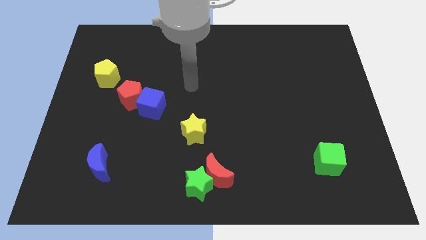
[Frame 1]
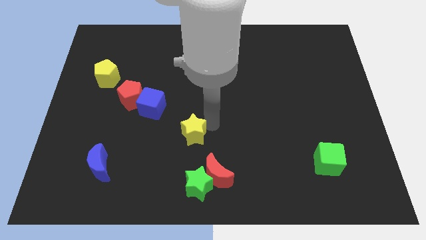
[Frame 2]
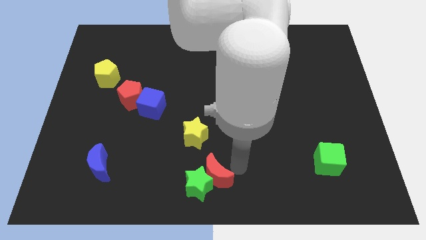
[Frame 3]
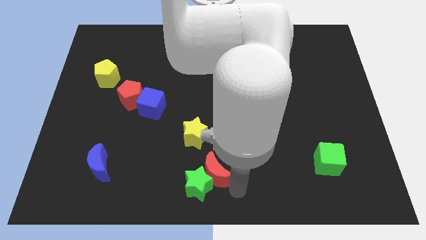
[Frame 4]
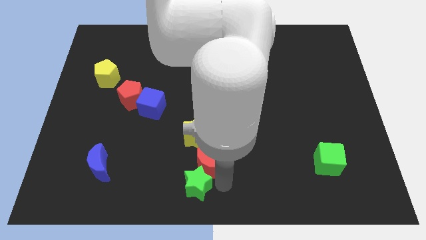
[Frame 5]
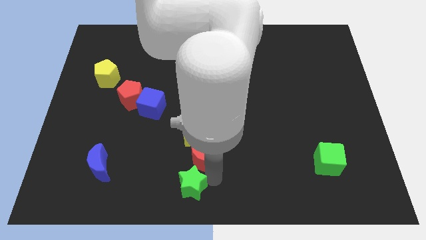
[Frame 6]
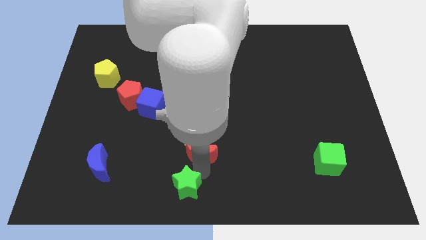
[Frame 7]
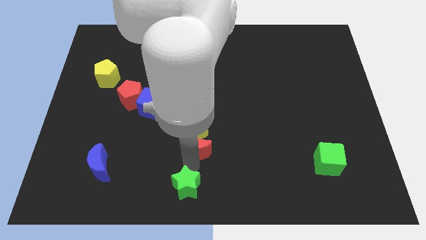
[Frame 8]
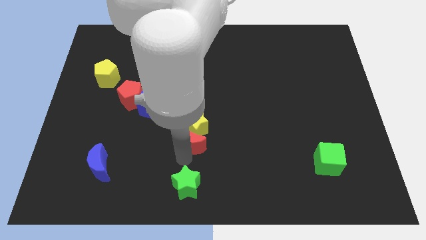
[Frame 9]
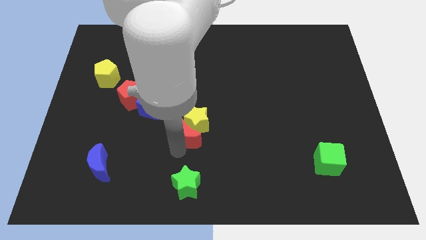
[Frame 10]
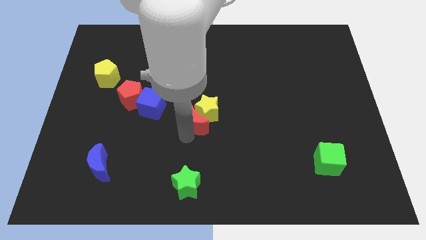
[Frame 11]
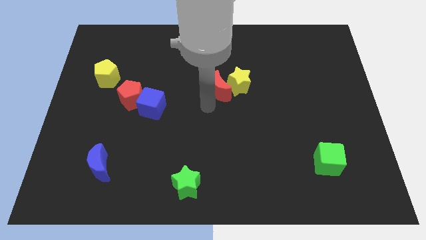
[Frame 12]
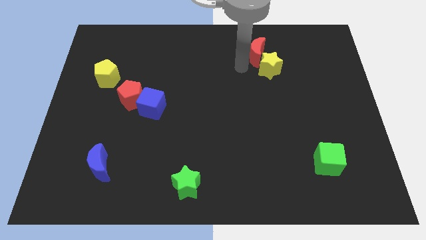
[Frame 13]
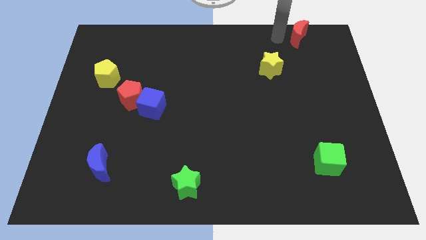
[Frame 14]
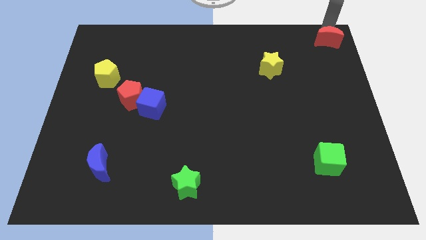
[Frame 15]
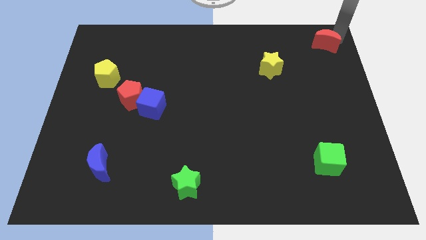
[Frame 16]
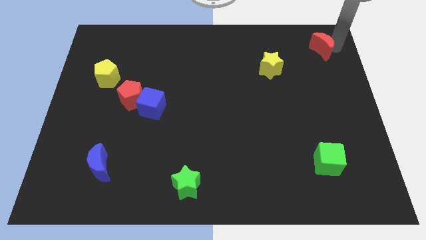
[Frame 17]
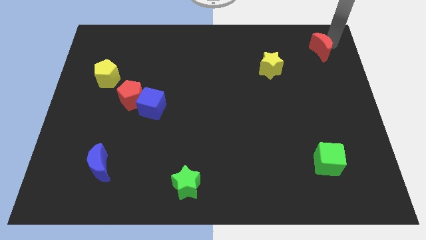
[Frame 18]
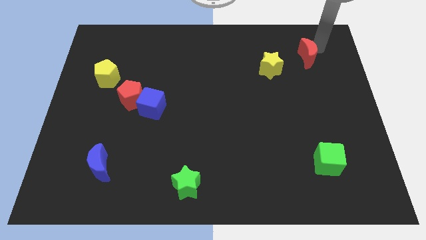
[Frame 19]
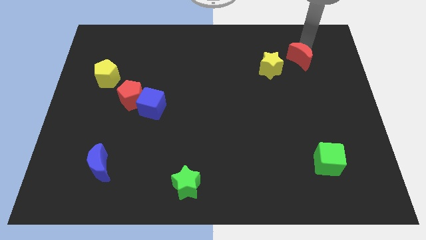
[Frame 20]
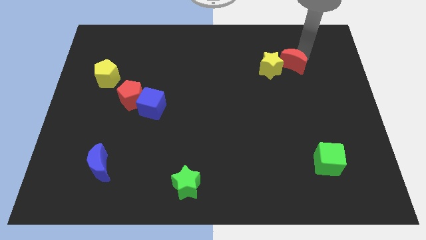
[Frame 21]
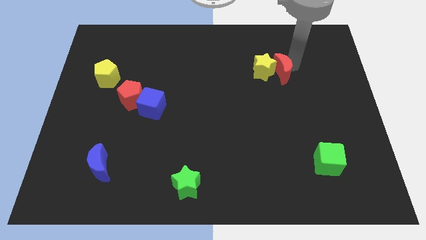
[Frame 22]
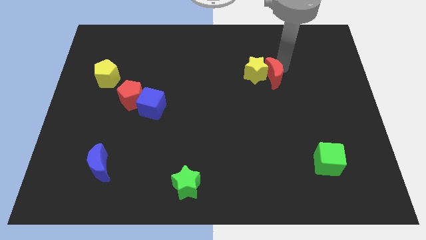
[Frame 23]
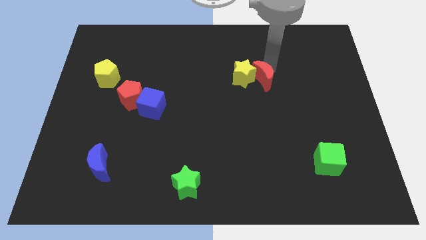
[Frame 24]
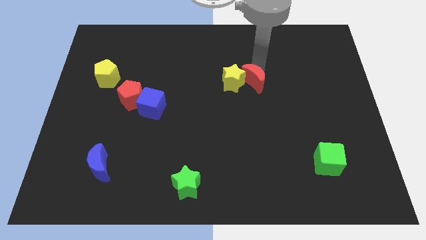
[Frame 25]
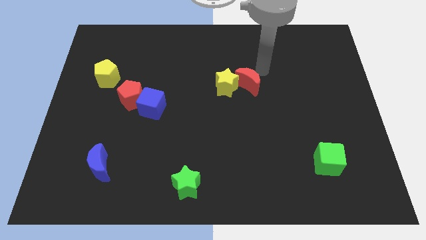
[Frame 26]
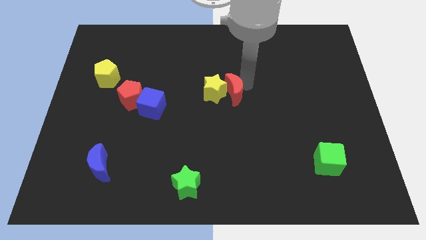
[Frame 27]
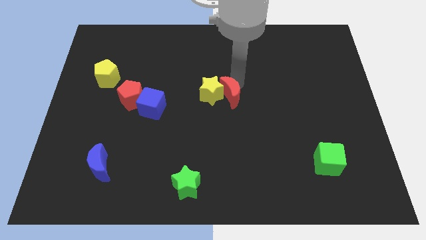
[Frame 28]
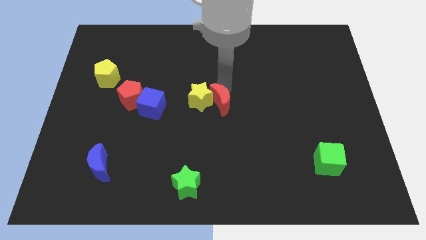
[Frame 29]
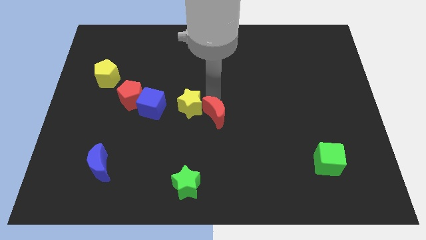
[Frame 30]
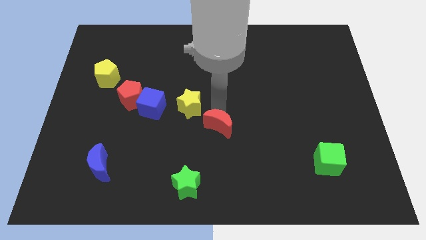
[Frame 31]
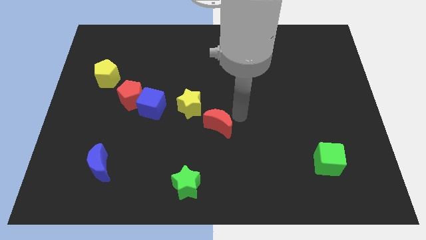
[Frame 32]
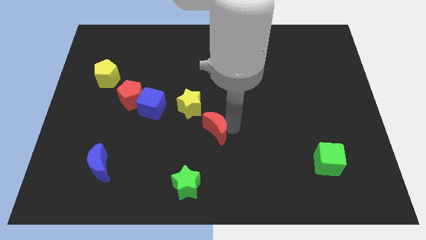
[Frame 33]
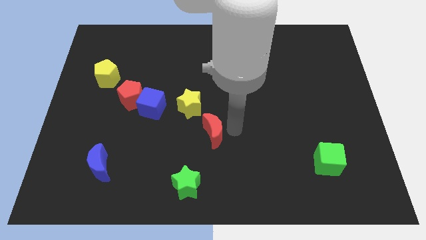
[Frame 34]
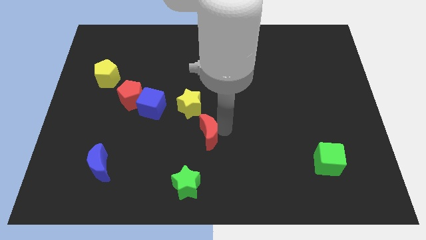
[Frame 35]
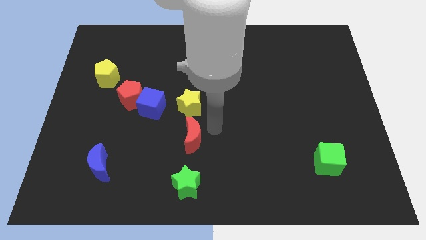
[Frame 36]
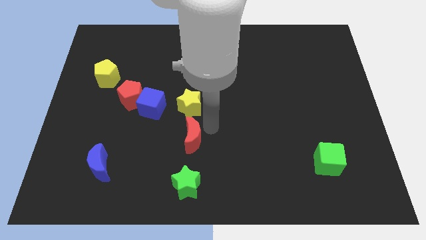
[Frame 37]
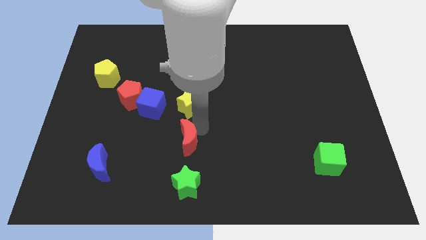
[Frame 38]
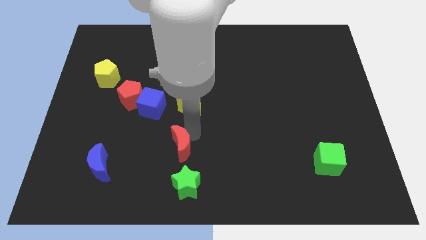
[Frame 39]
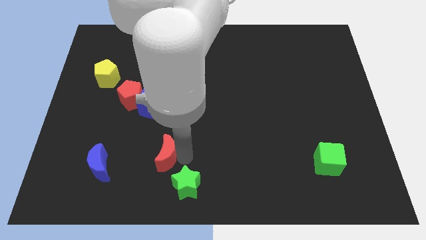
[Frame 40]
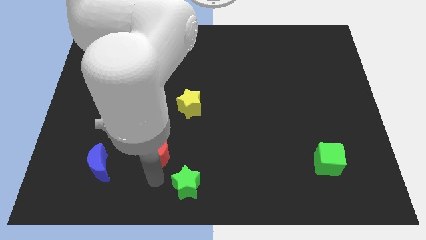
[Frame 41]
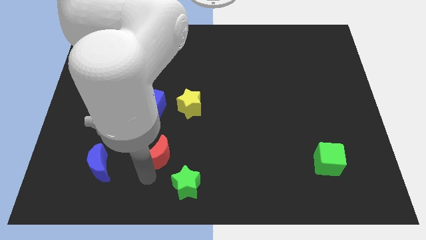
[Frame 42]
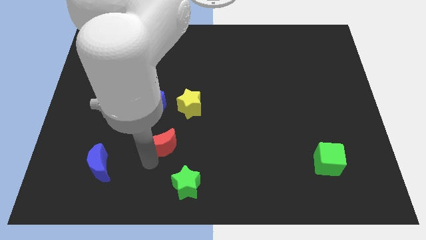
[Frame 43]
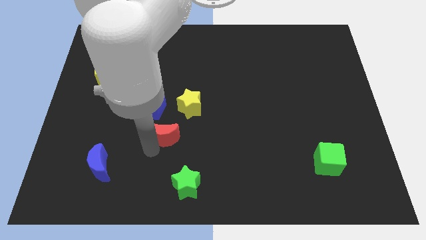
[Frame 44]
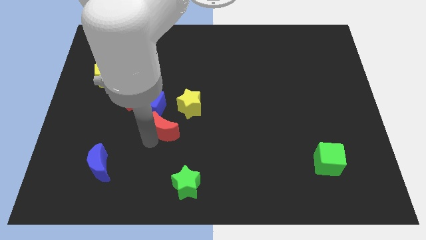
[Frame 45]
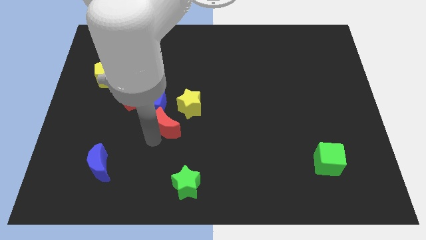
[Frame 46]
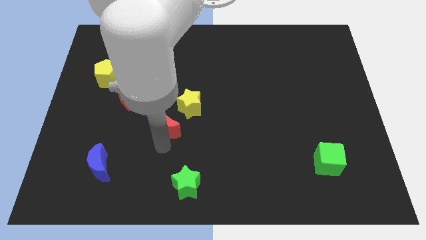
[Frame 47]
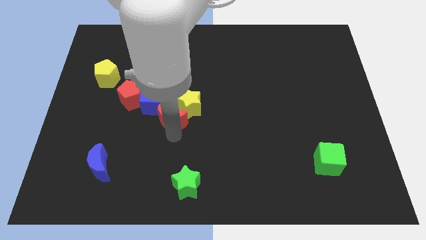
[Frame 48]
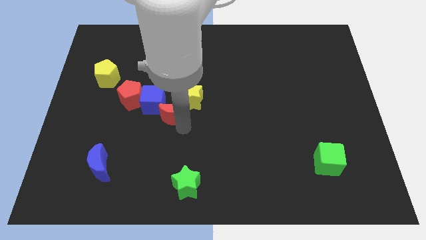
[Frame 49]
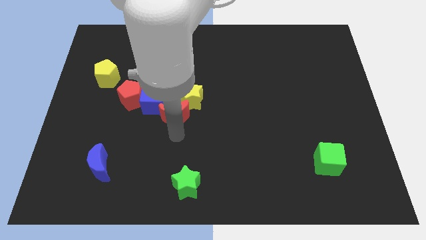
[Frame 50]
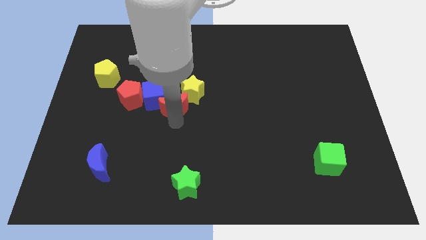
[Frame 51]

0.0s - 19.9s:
push the red moon just right of the red pentagon

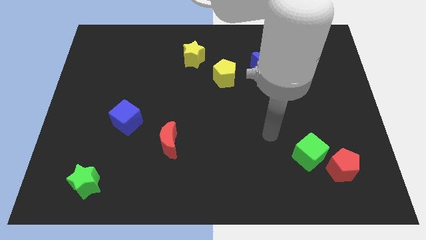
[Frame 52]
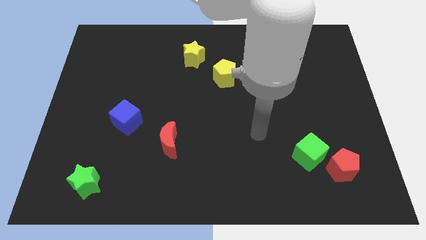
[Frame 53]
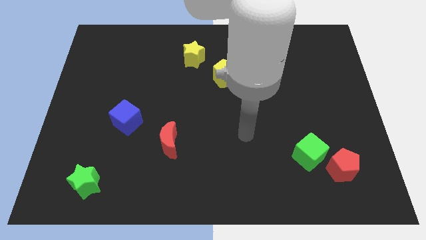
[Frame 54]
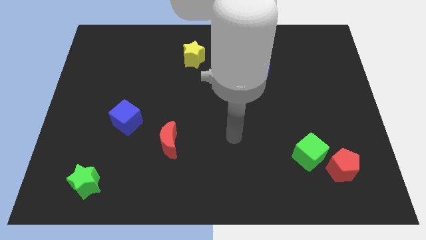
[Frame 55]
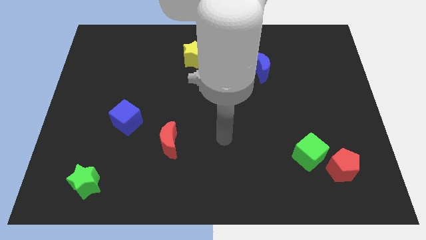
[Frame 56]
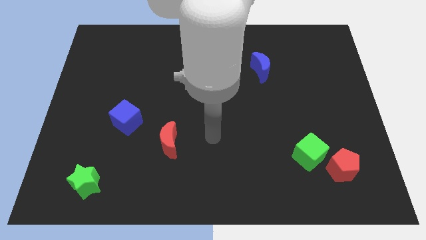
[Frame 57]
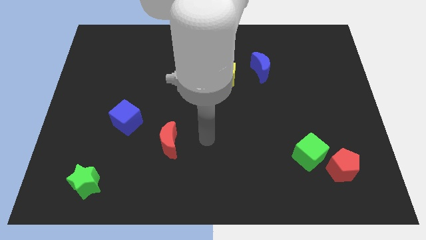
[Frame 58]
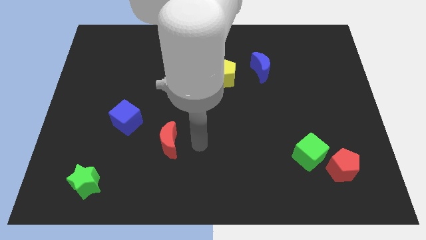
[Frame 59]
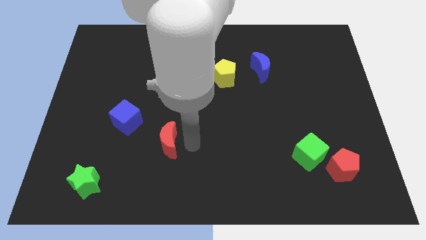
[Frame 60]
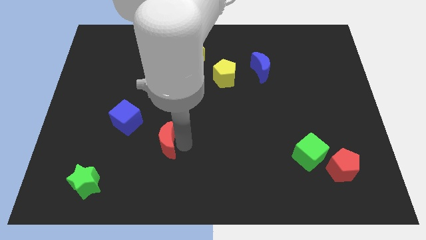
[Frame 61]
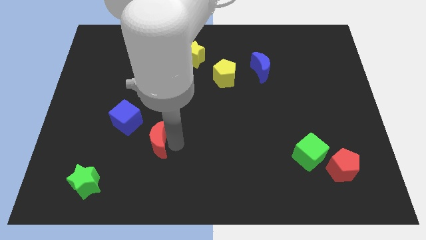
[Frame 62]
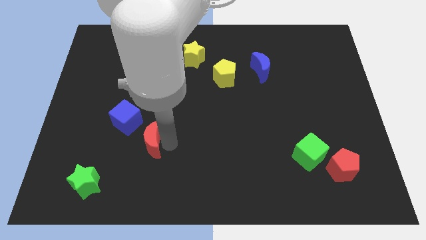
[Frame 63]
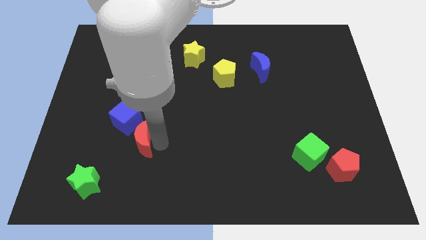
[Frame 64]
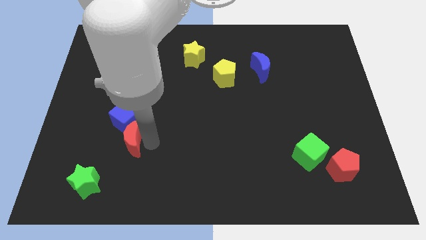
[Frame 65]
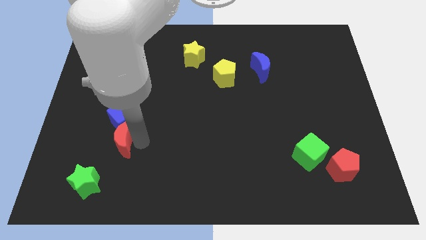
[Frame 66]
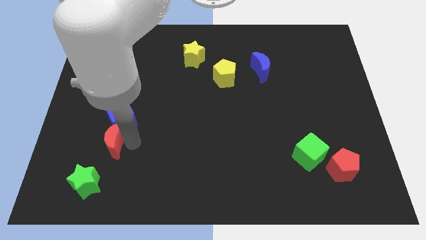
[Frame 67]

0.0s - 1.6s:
slide the red moon to the top side of the green star

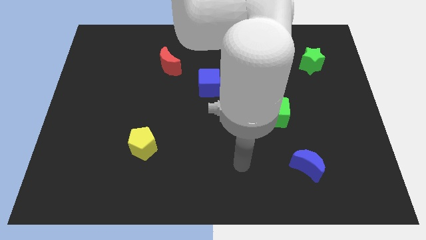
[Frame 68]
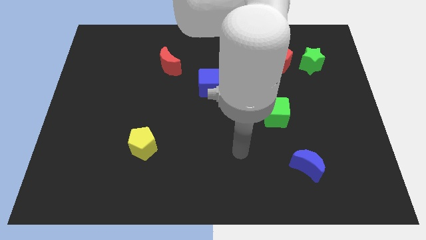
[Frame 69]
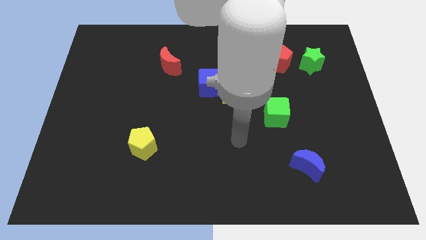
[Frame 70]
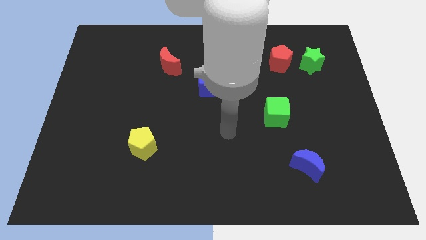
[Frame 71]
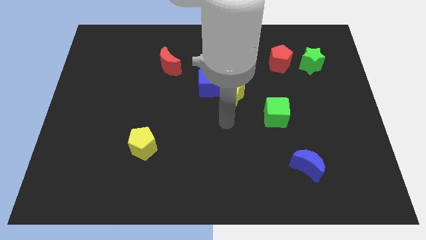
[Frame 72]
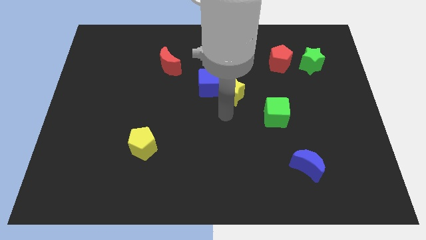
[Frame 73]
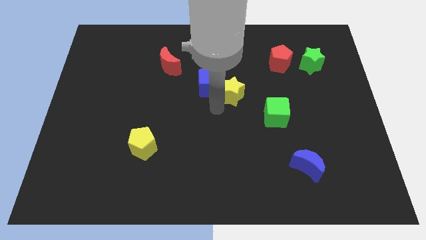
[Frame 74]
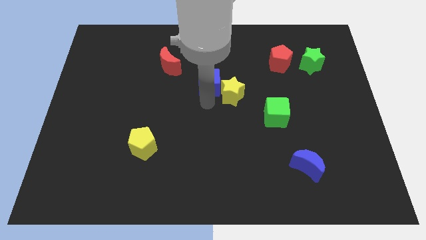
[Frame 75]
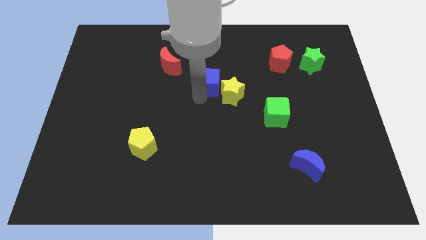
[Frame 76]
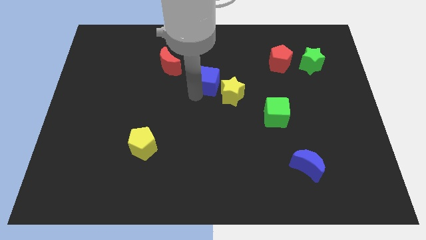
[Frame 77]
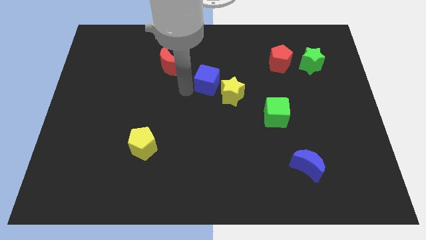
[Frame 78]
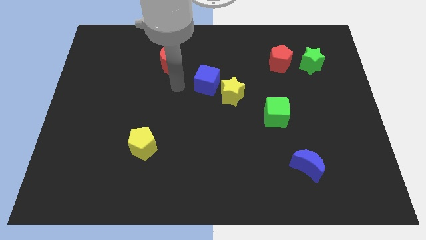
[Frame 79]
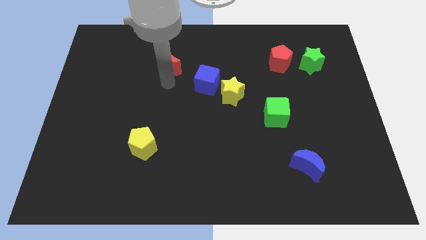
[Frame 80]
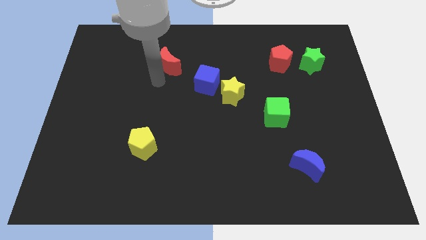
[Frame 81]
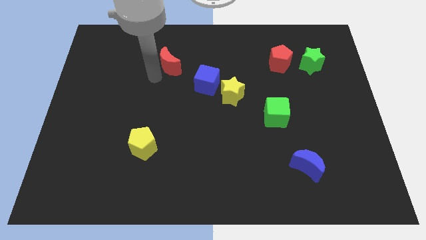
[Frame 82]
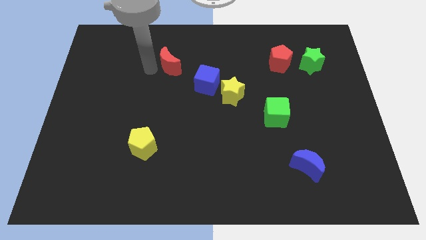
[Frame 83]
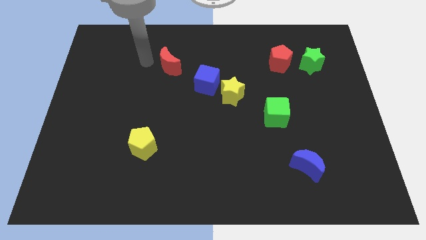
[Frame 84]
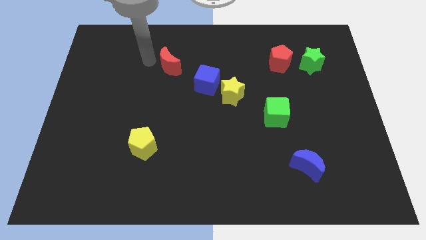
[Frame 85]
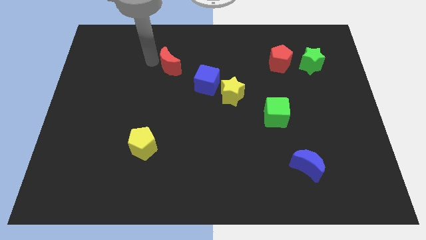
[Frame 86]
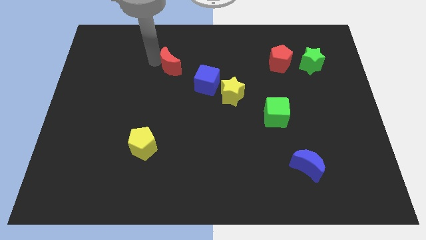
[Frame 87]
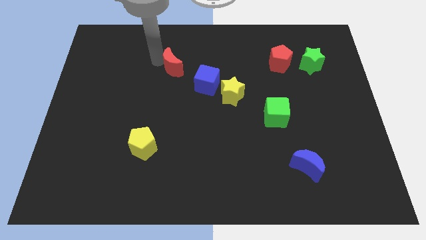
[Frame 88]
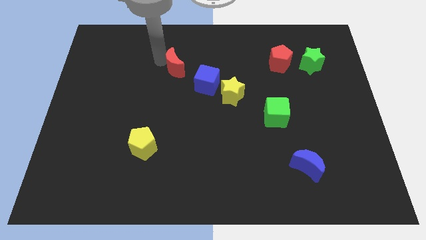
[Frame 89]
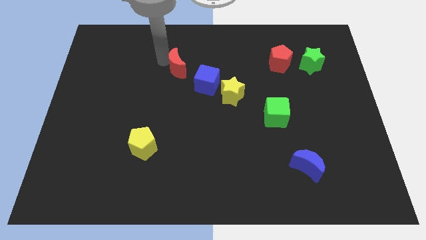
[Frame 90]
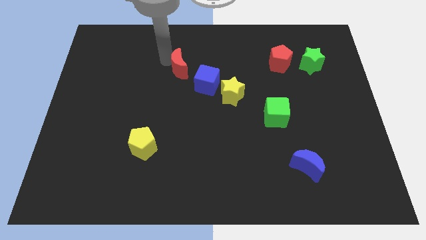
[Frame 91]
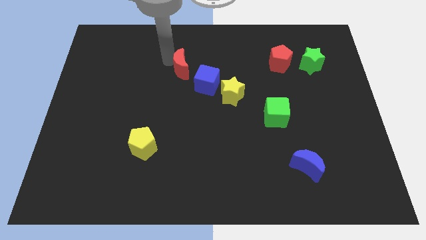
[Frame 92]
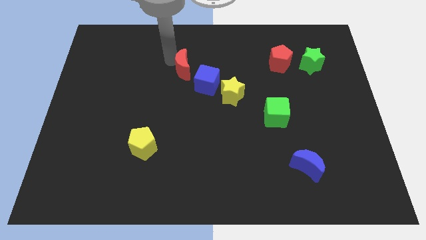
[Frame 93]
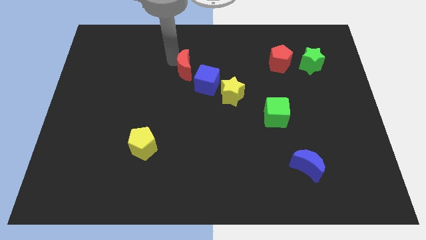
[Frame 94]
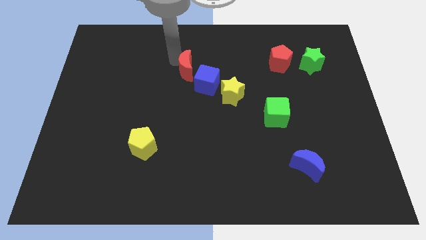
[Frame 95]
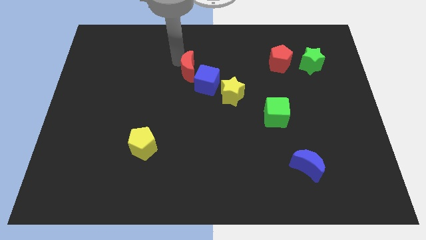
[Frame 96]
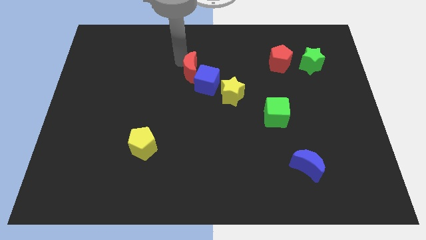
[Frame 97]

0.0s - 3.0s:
push the red moon to the top left of the yellow star
